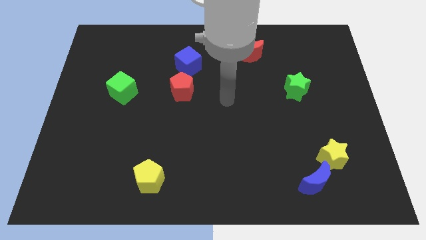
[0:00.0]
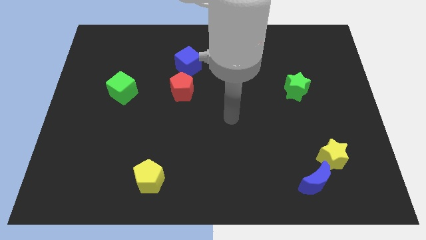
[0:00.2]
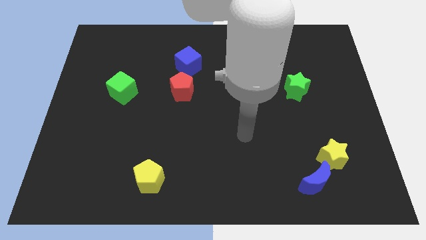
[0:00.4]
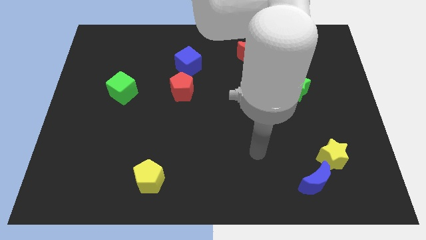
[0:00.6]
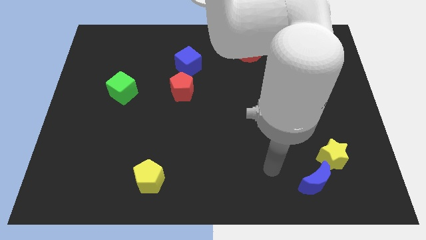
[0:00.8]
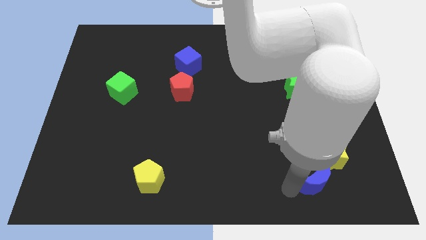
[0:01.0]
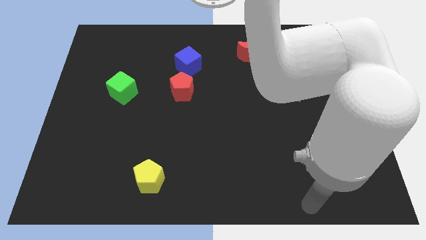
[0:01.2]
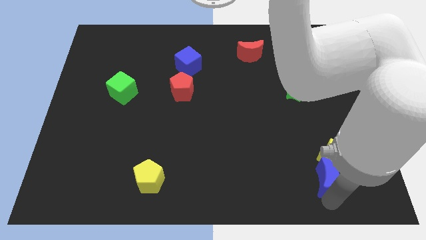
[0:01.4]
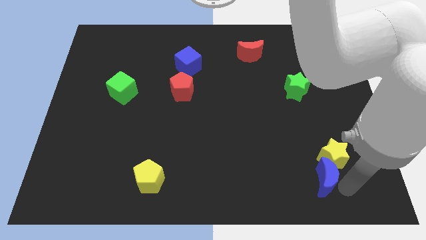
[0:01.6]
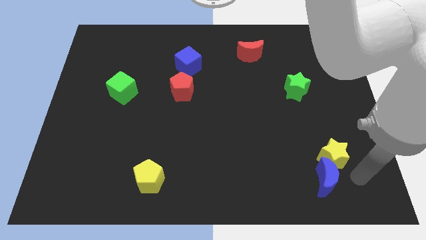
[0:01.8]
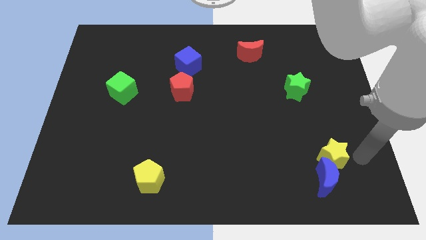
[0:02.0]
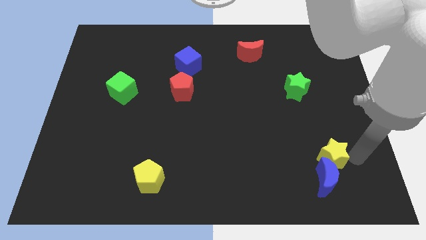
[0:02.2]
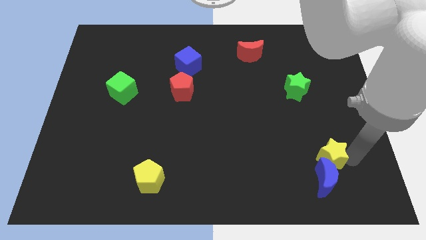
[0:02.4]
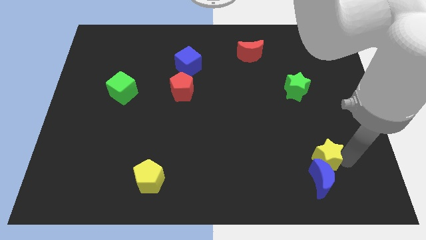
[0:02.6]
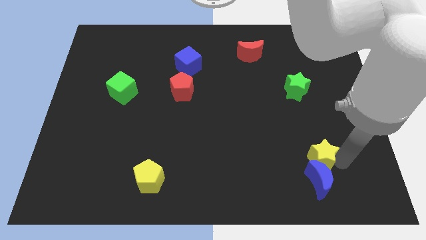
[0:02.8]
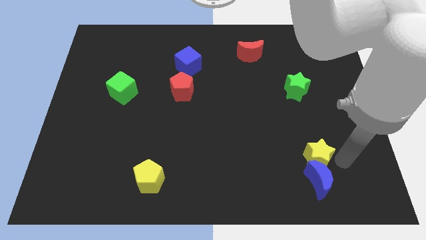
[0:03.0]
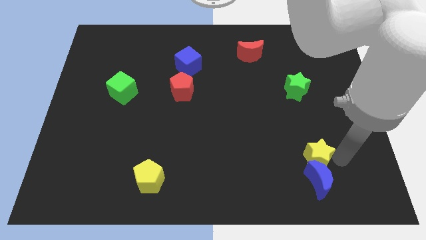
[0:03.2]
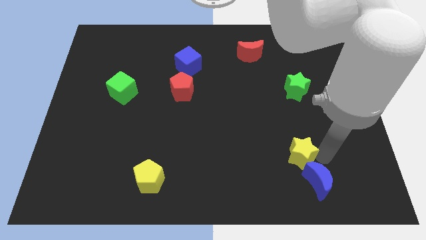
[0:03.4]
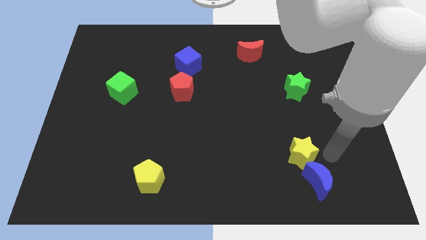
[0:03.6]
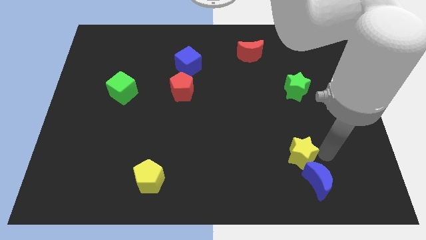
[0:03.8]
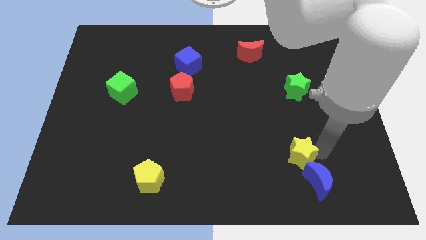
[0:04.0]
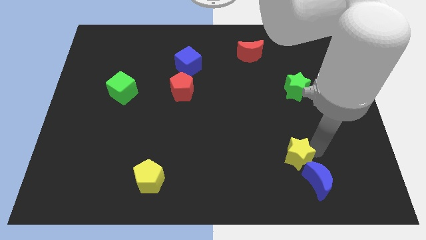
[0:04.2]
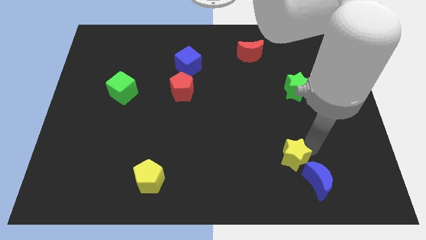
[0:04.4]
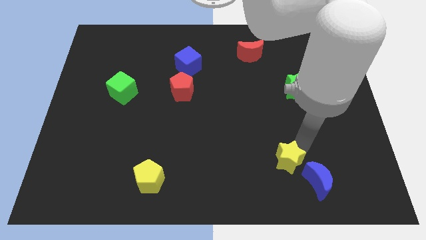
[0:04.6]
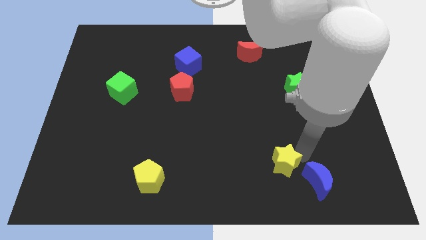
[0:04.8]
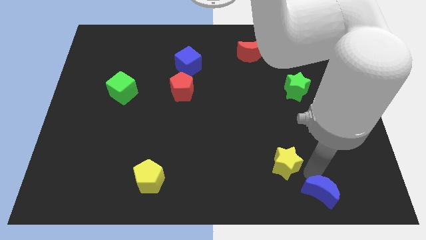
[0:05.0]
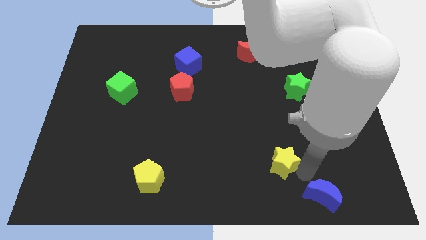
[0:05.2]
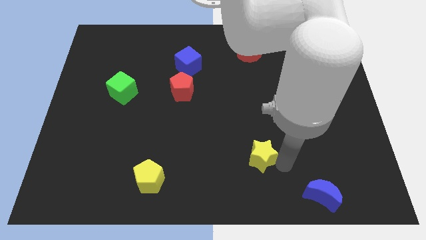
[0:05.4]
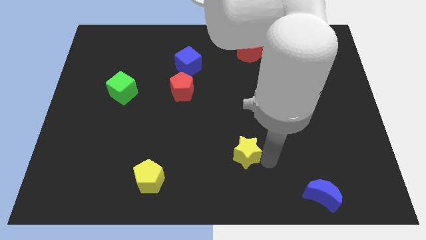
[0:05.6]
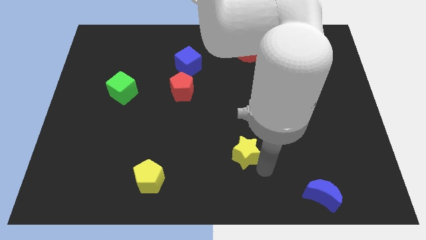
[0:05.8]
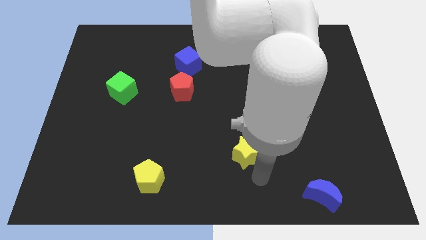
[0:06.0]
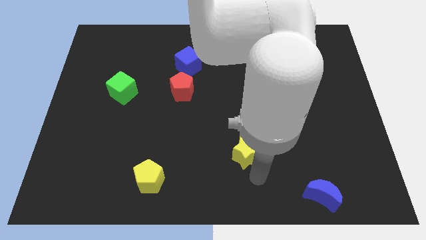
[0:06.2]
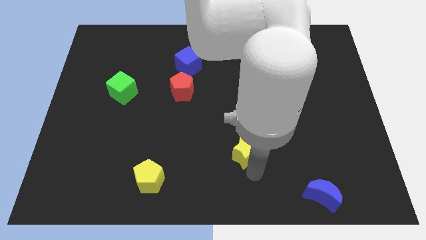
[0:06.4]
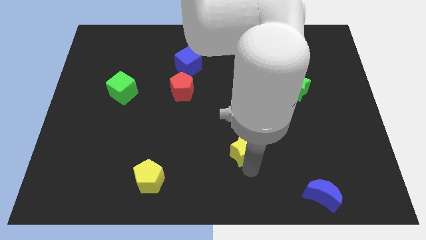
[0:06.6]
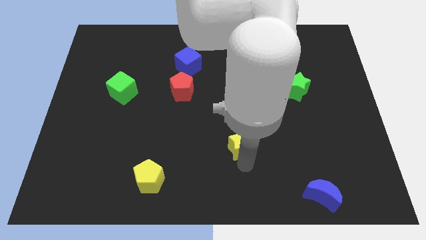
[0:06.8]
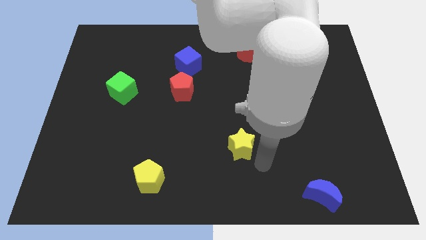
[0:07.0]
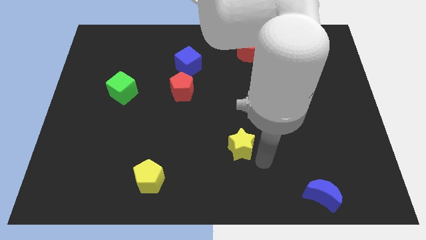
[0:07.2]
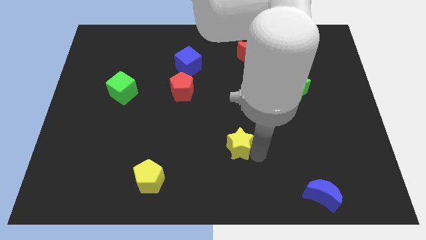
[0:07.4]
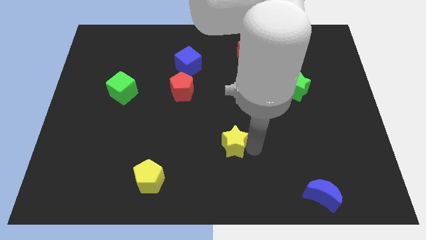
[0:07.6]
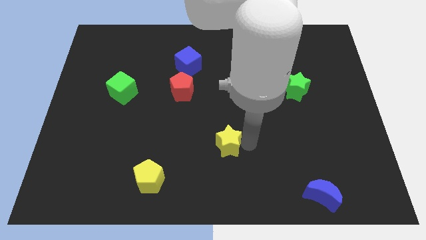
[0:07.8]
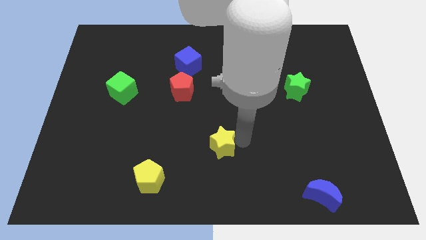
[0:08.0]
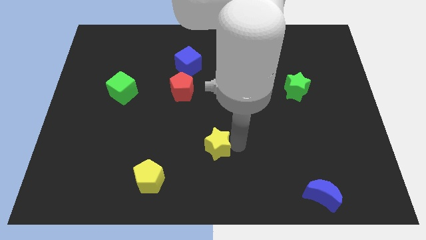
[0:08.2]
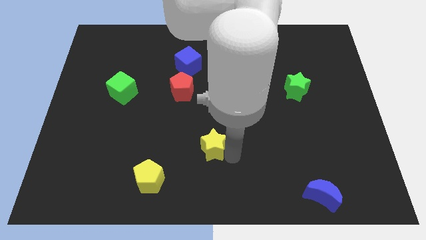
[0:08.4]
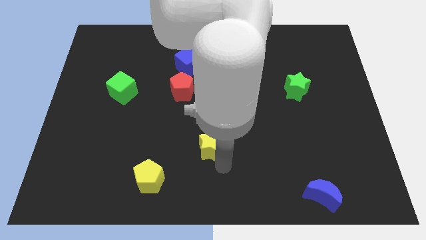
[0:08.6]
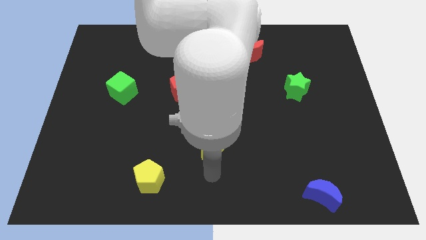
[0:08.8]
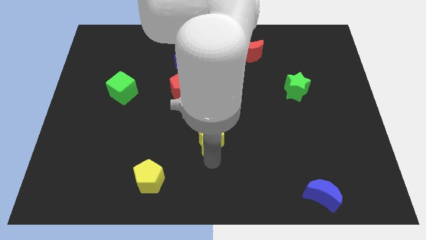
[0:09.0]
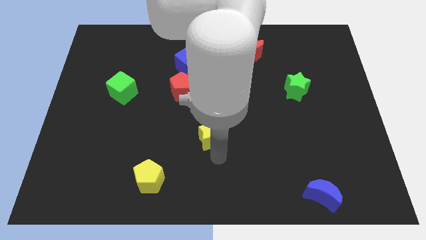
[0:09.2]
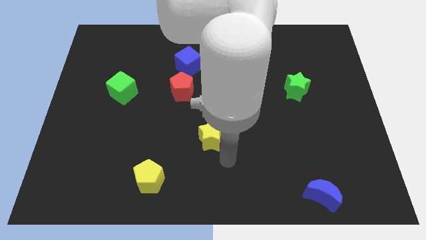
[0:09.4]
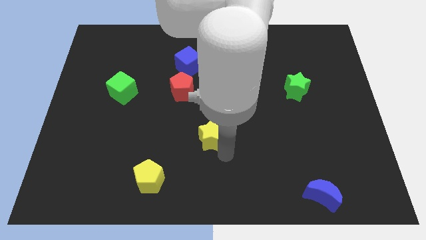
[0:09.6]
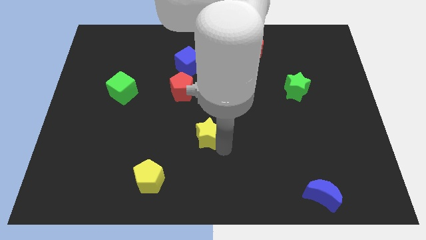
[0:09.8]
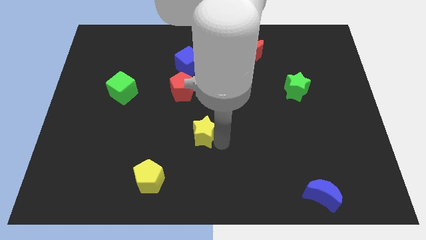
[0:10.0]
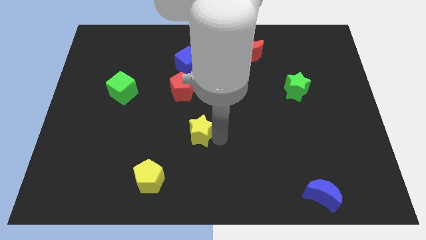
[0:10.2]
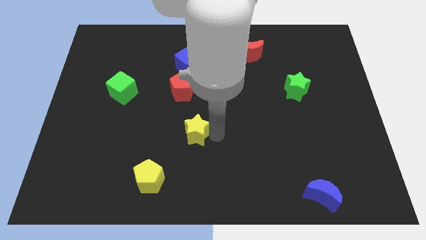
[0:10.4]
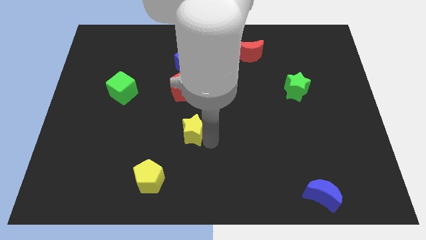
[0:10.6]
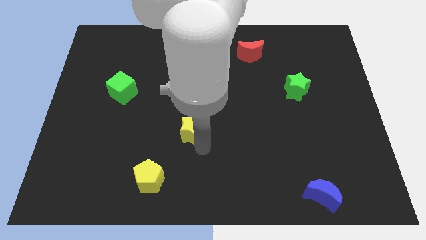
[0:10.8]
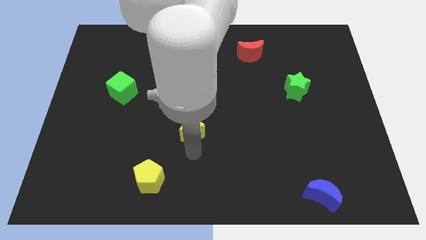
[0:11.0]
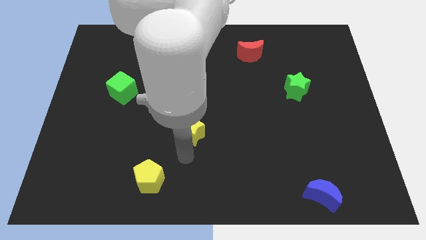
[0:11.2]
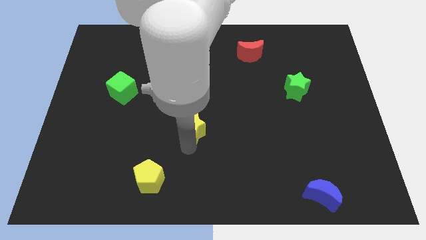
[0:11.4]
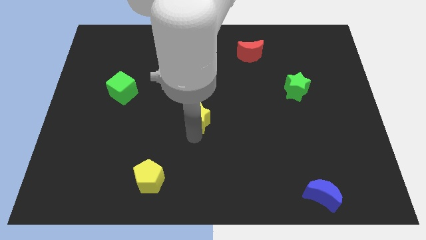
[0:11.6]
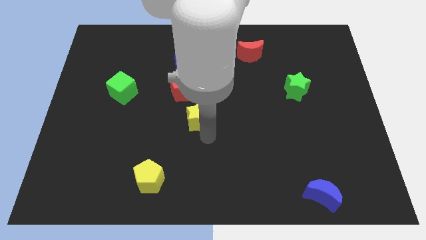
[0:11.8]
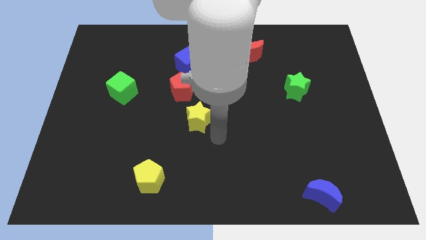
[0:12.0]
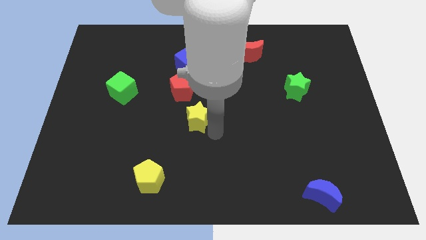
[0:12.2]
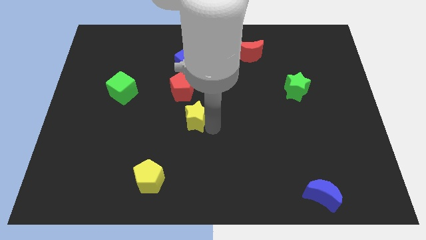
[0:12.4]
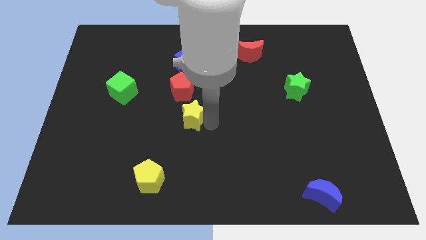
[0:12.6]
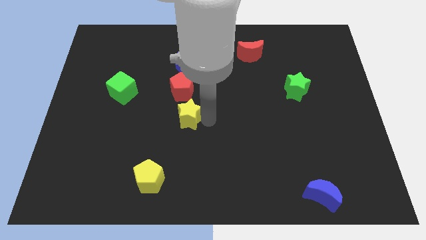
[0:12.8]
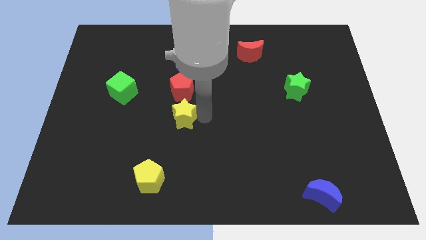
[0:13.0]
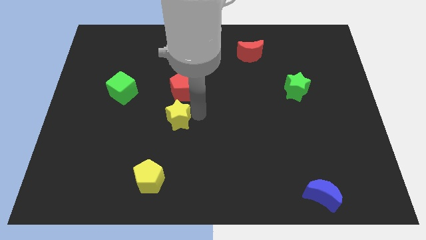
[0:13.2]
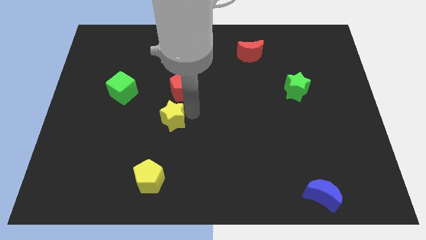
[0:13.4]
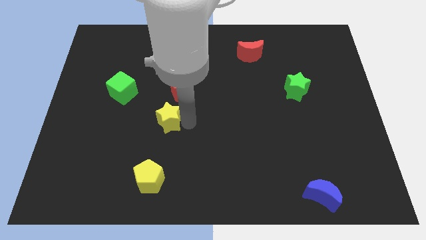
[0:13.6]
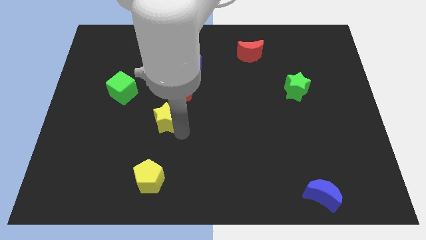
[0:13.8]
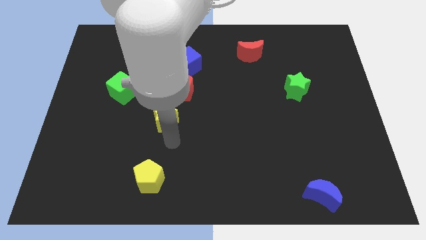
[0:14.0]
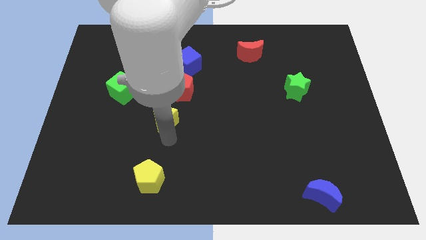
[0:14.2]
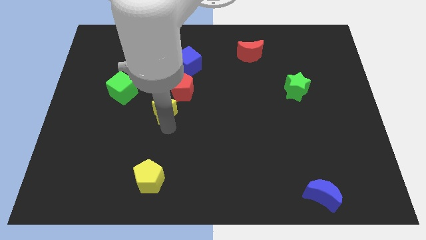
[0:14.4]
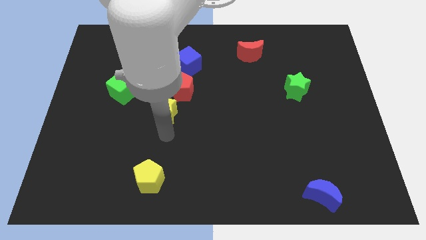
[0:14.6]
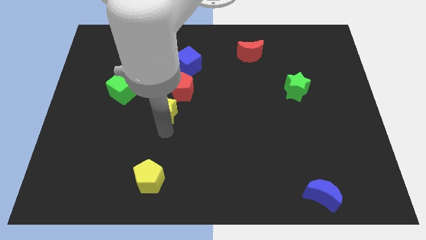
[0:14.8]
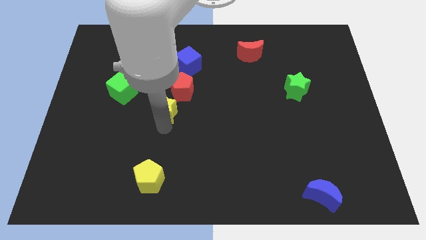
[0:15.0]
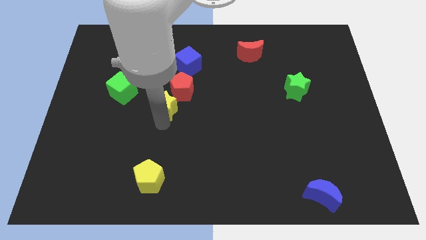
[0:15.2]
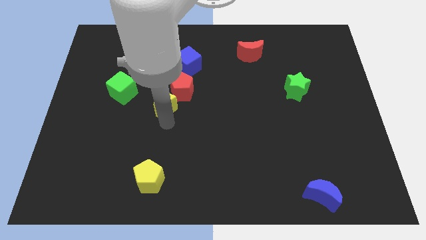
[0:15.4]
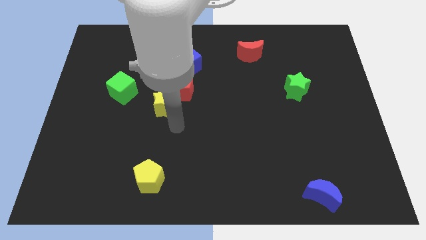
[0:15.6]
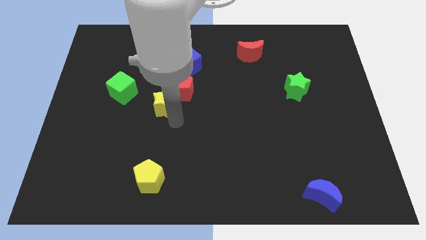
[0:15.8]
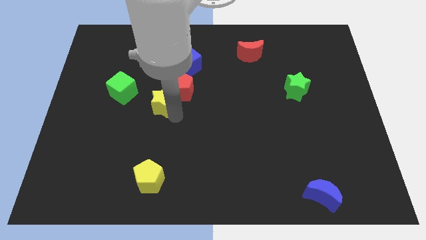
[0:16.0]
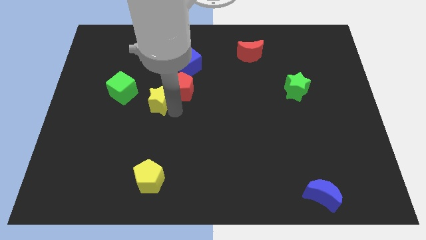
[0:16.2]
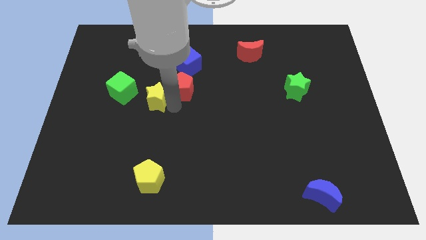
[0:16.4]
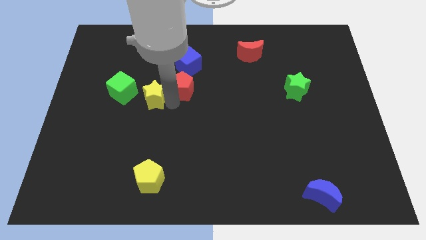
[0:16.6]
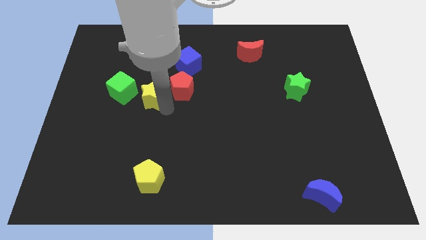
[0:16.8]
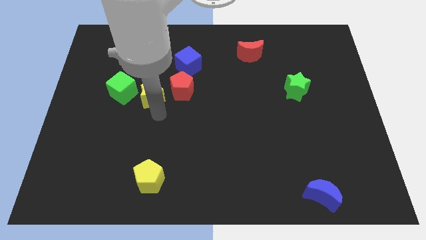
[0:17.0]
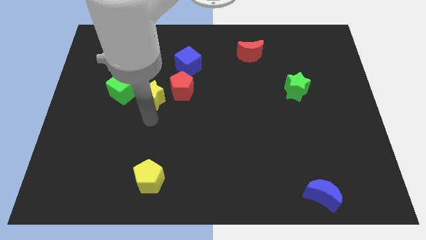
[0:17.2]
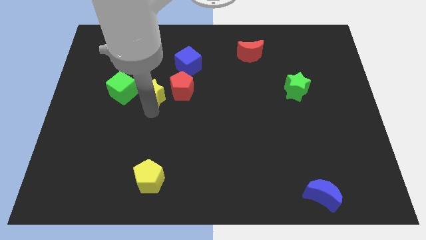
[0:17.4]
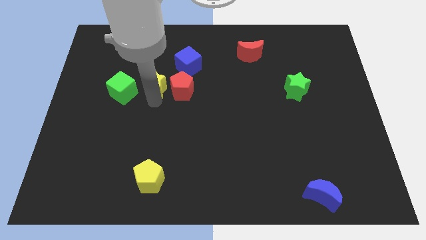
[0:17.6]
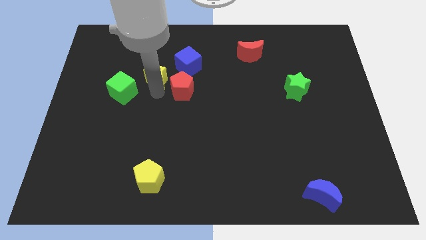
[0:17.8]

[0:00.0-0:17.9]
put the yellow star just left of the blue cube
